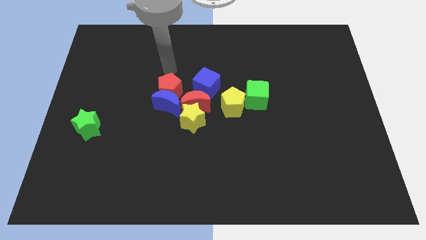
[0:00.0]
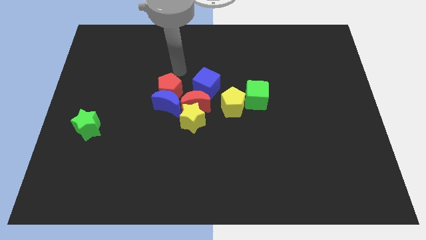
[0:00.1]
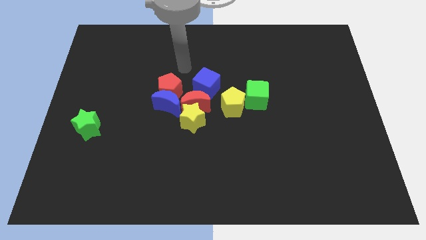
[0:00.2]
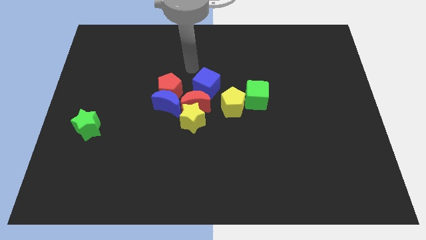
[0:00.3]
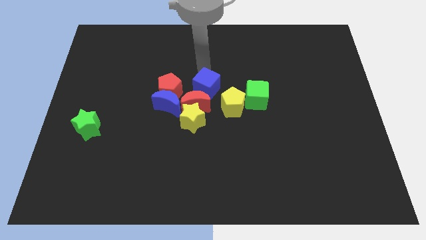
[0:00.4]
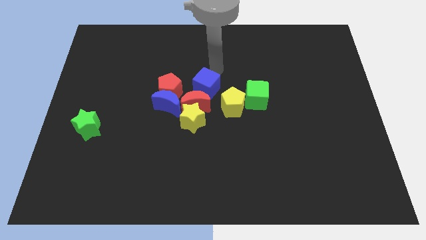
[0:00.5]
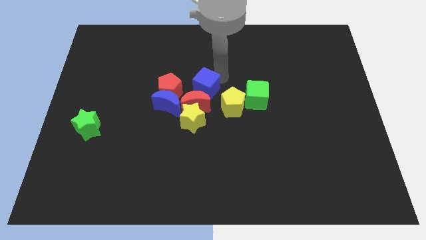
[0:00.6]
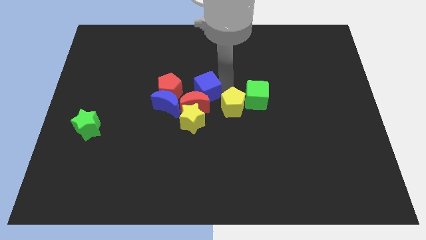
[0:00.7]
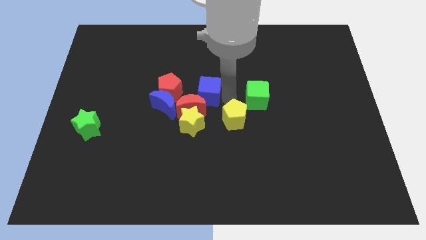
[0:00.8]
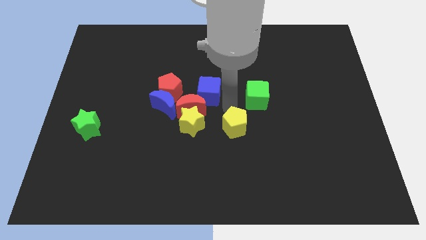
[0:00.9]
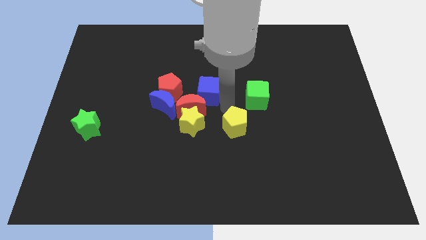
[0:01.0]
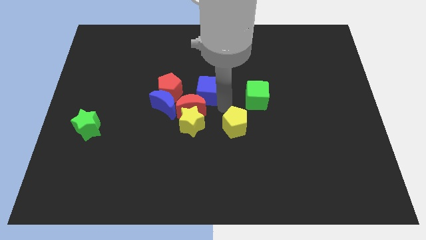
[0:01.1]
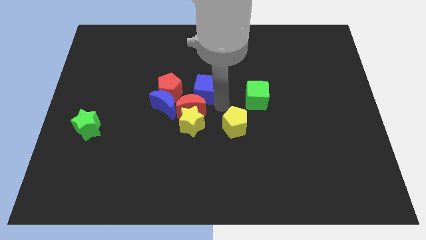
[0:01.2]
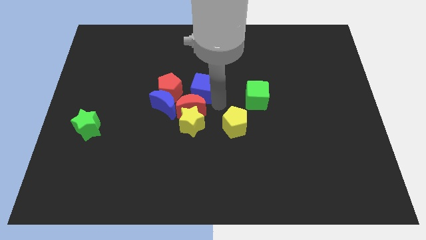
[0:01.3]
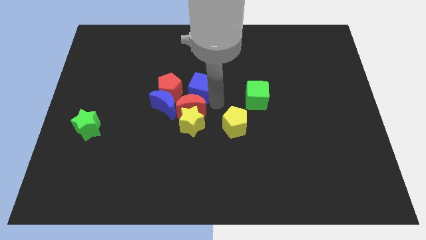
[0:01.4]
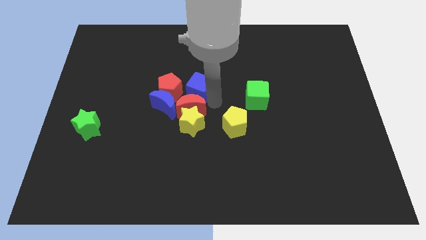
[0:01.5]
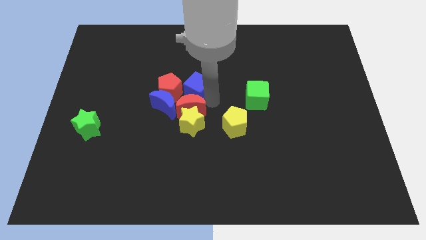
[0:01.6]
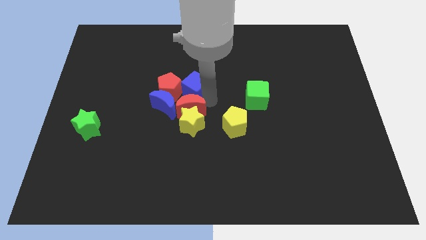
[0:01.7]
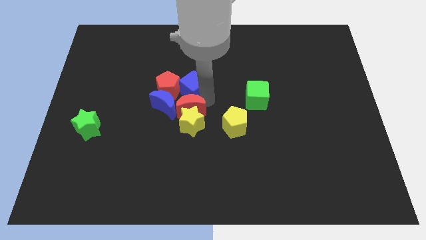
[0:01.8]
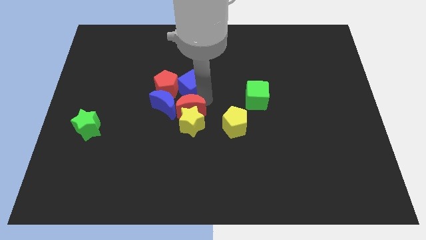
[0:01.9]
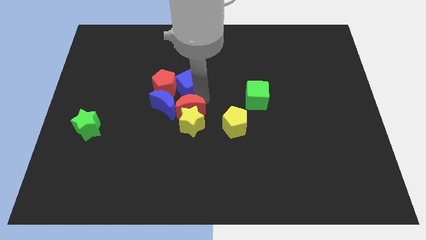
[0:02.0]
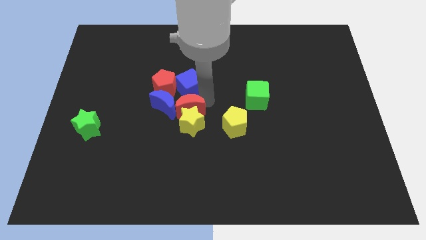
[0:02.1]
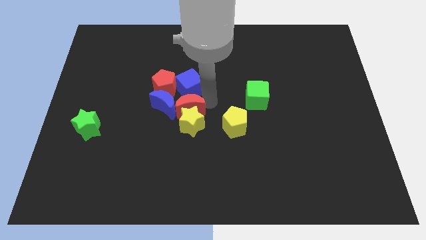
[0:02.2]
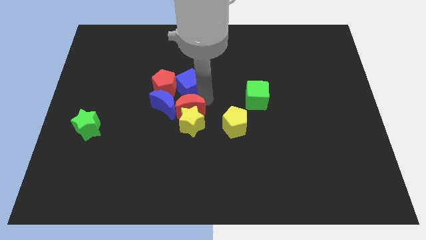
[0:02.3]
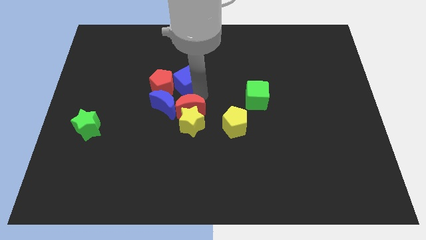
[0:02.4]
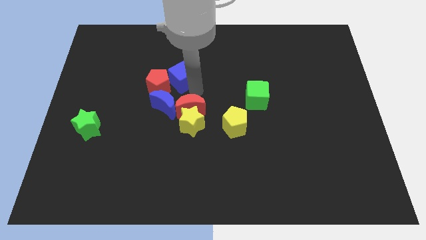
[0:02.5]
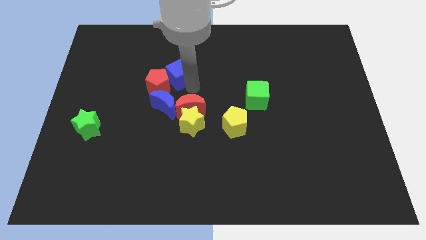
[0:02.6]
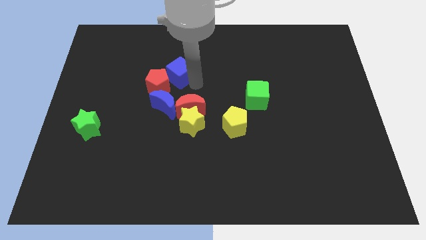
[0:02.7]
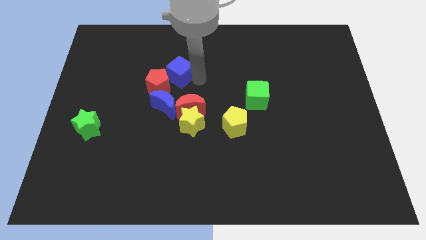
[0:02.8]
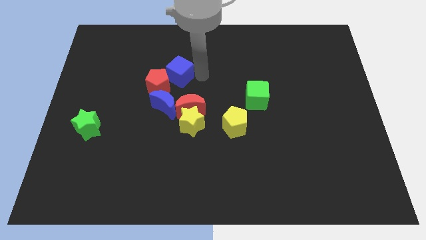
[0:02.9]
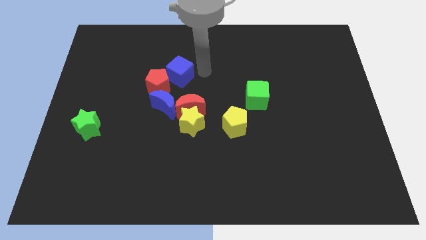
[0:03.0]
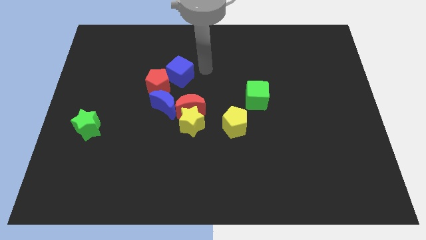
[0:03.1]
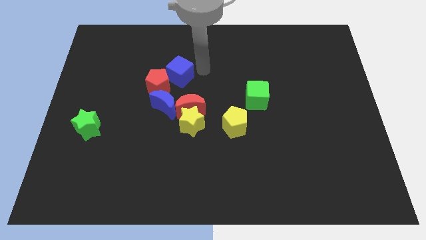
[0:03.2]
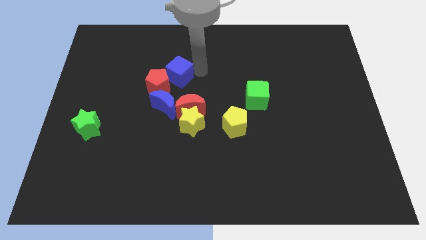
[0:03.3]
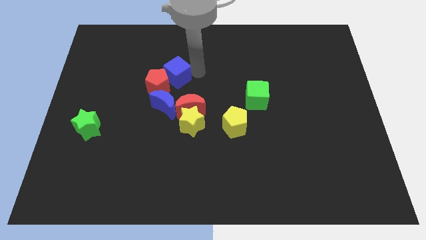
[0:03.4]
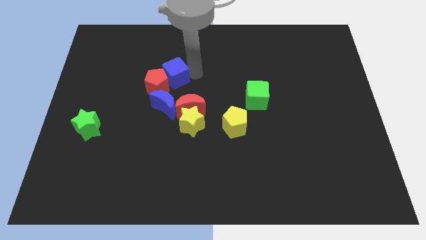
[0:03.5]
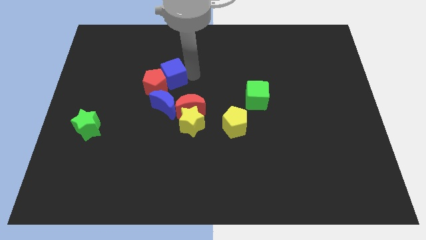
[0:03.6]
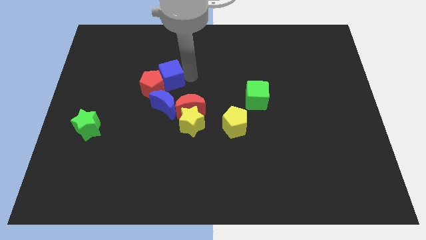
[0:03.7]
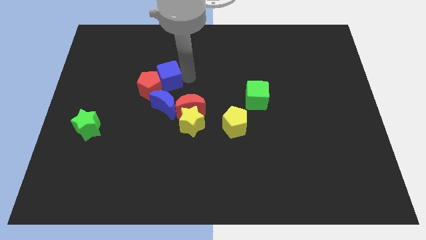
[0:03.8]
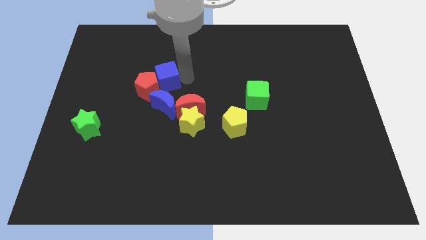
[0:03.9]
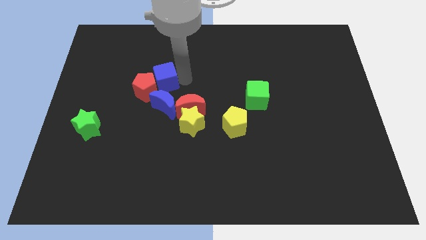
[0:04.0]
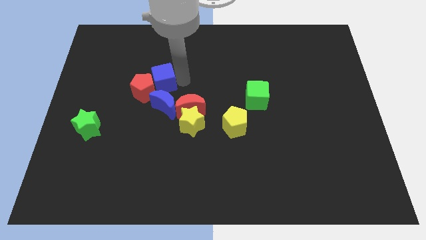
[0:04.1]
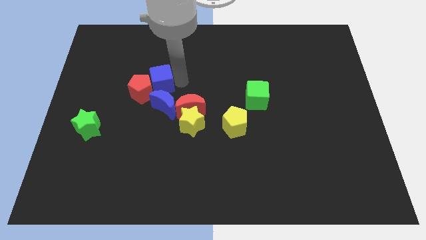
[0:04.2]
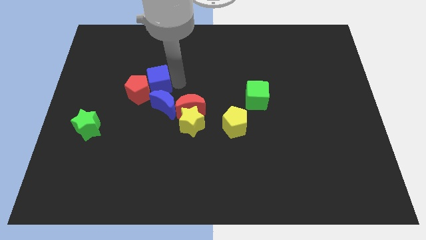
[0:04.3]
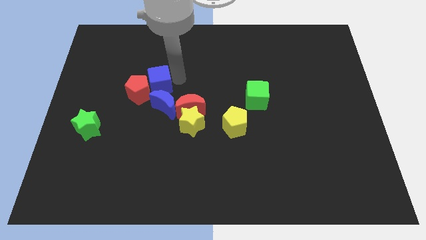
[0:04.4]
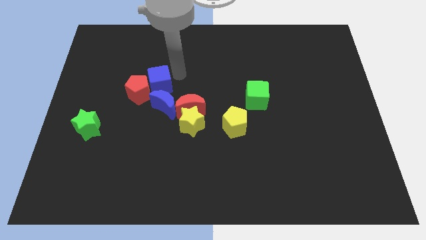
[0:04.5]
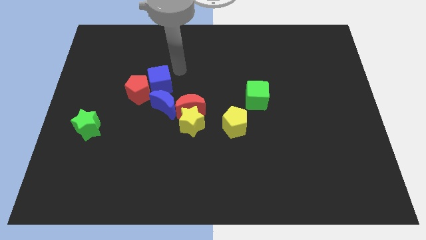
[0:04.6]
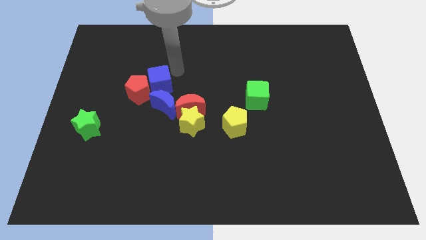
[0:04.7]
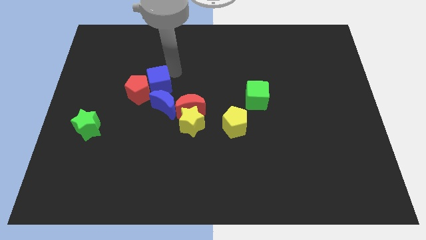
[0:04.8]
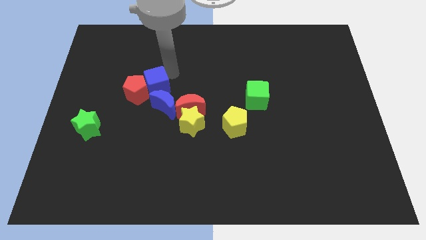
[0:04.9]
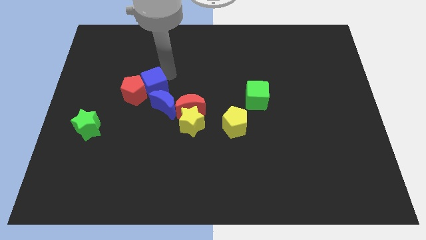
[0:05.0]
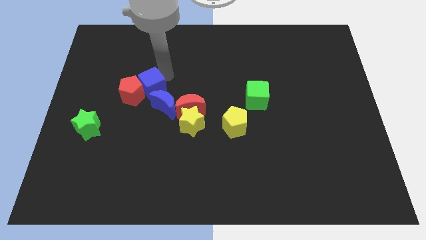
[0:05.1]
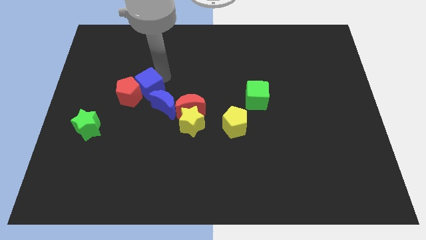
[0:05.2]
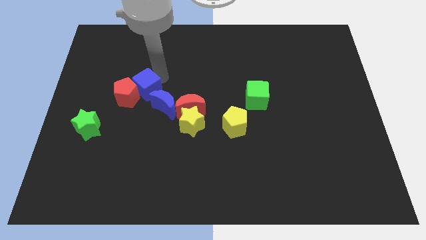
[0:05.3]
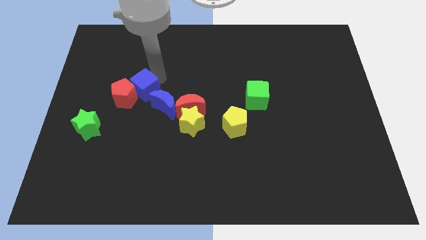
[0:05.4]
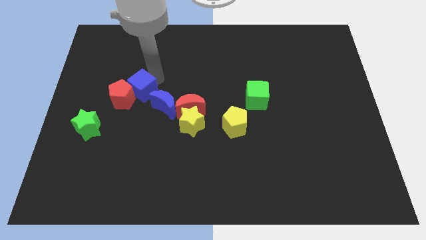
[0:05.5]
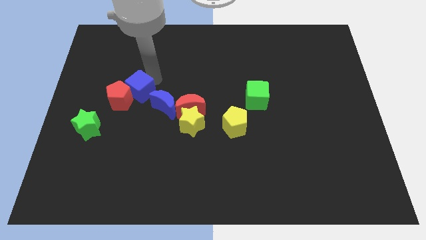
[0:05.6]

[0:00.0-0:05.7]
put the blue cube to the left side of the blue moon
